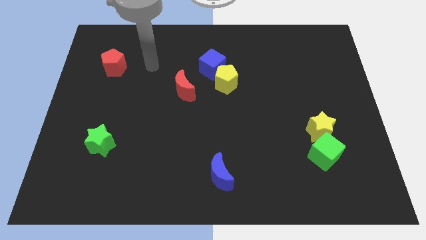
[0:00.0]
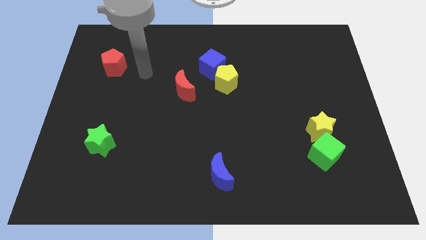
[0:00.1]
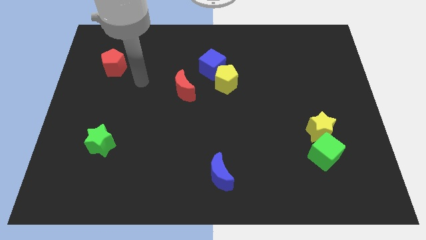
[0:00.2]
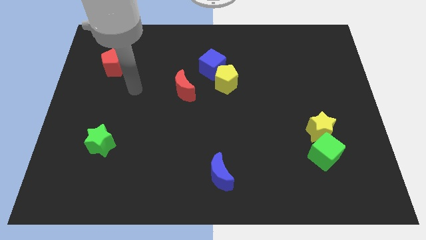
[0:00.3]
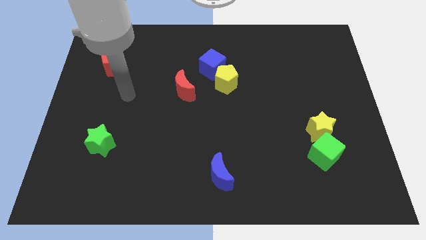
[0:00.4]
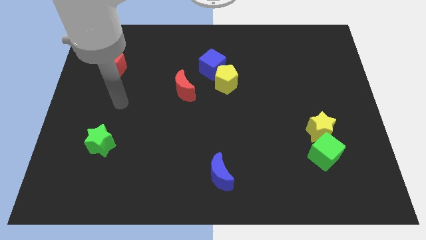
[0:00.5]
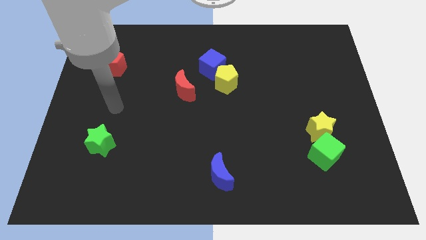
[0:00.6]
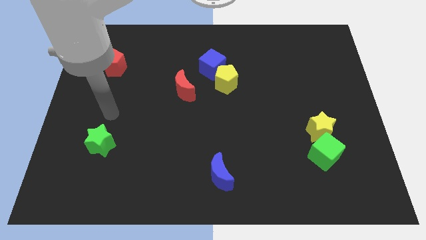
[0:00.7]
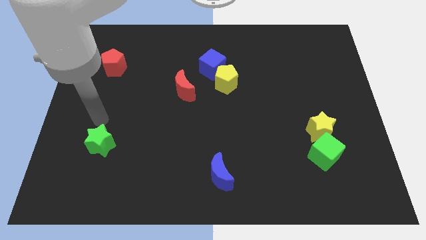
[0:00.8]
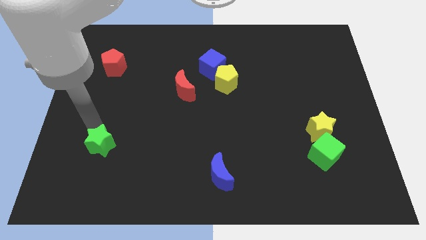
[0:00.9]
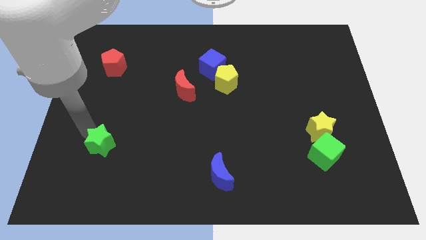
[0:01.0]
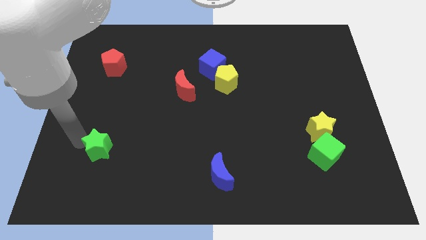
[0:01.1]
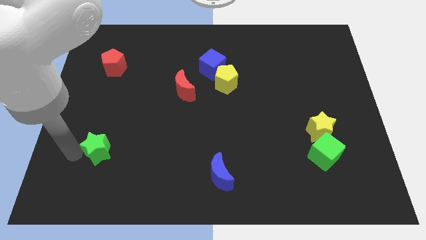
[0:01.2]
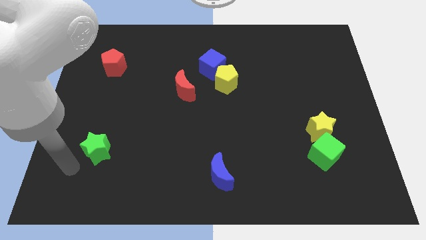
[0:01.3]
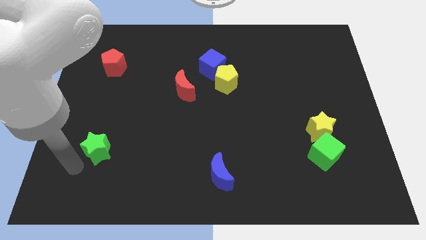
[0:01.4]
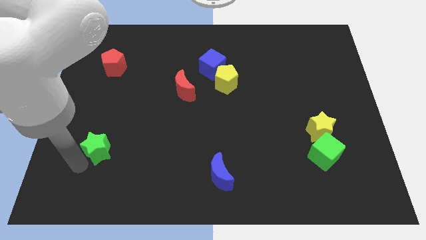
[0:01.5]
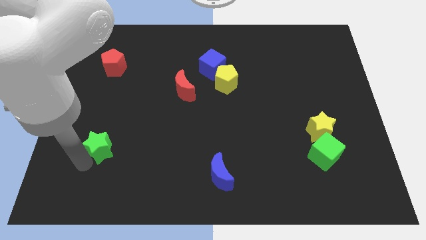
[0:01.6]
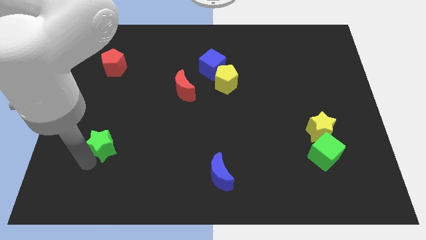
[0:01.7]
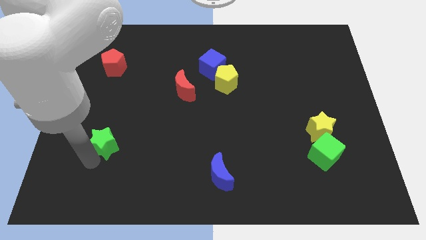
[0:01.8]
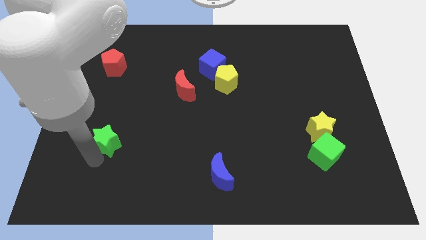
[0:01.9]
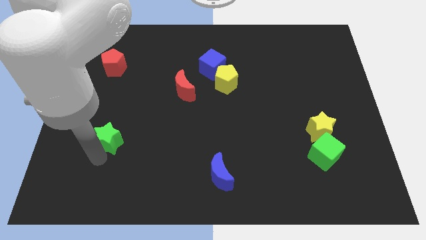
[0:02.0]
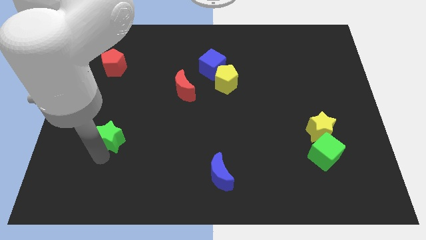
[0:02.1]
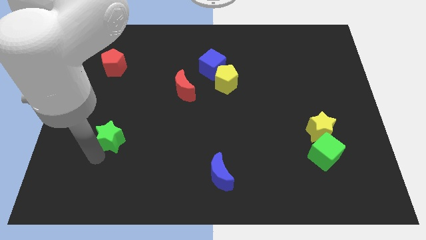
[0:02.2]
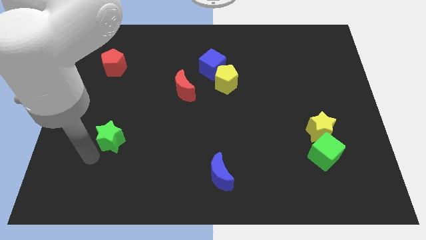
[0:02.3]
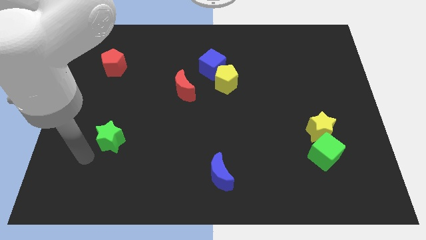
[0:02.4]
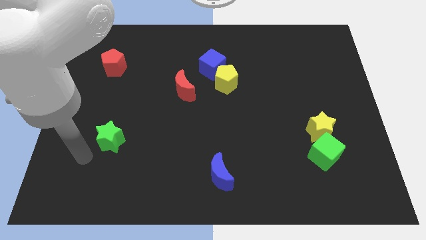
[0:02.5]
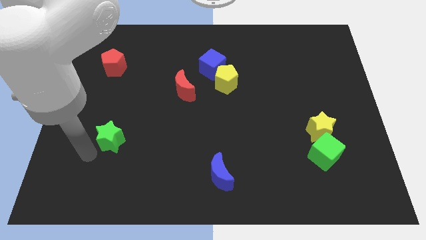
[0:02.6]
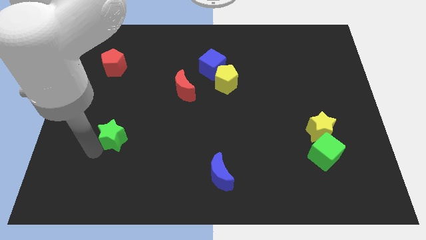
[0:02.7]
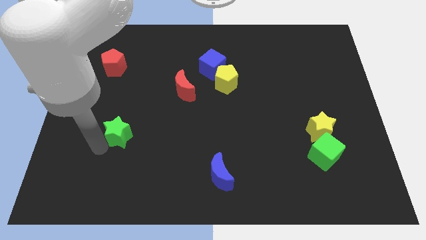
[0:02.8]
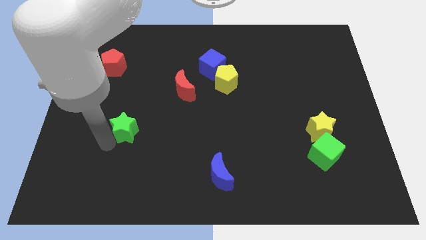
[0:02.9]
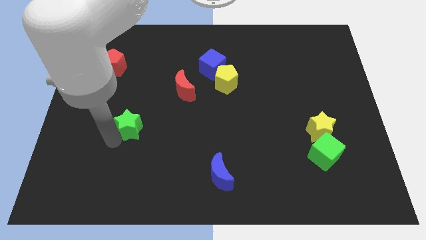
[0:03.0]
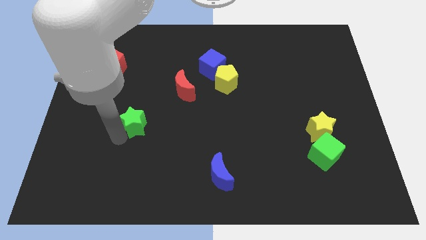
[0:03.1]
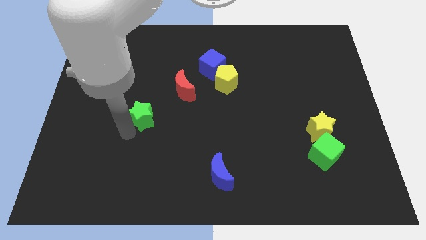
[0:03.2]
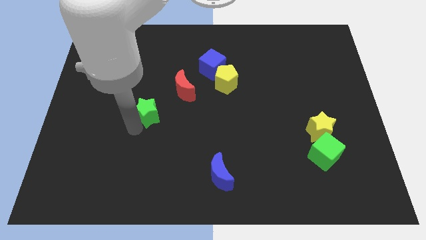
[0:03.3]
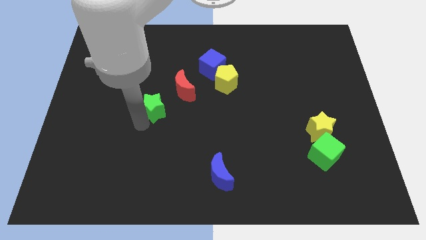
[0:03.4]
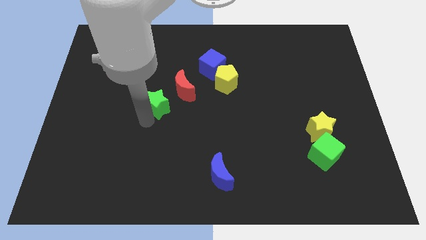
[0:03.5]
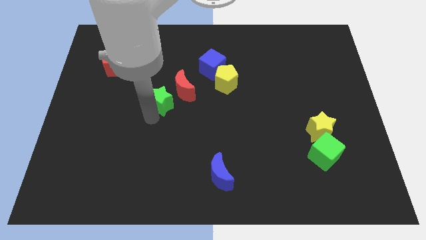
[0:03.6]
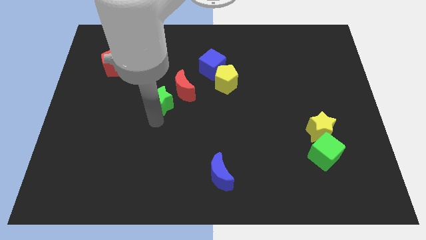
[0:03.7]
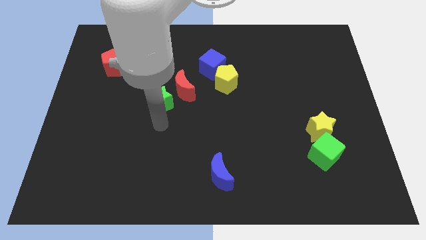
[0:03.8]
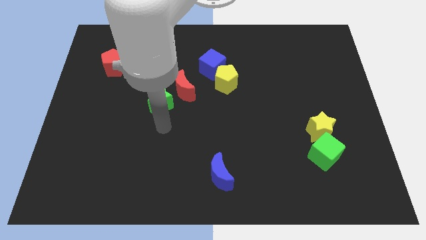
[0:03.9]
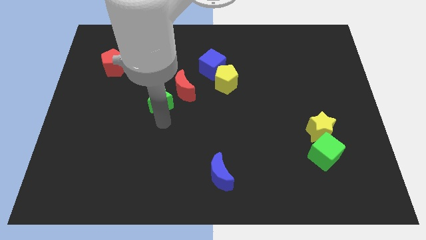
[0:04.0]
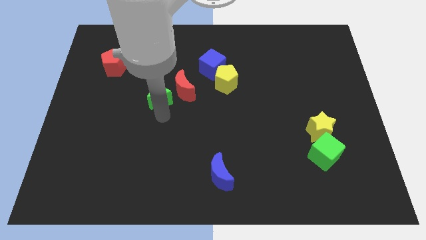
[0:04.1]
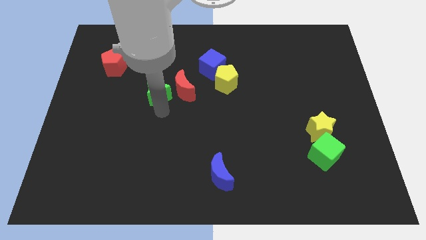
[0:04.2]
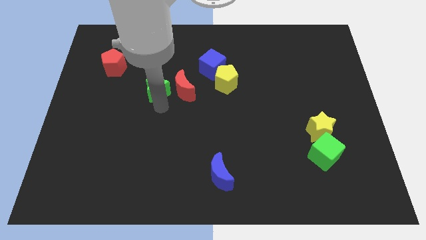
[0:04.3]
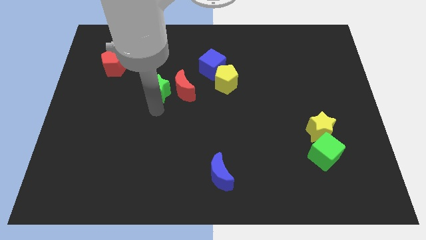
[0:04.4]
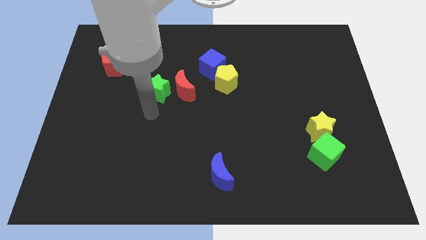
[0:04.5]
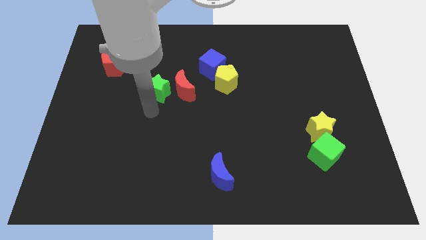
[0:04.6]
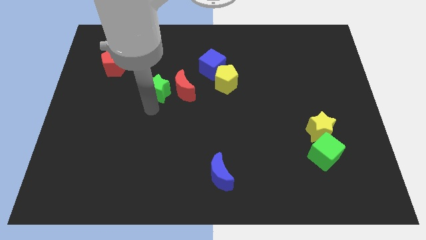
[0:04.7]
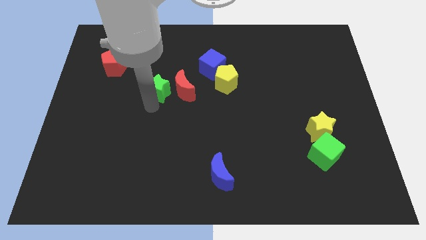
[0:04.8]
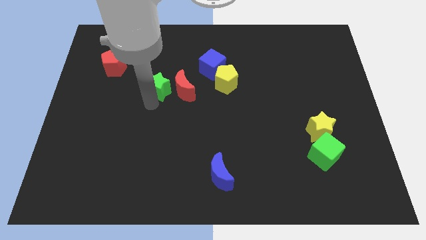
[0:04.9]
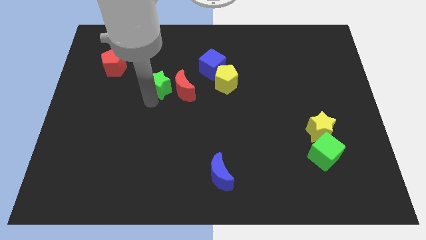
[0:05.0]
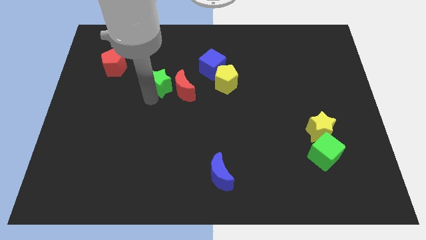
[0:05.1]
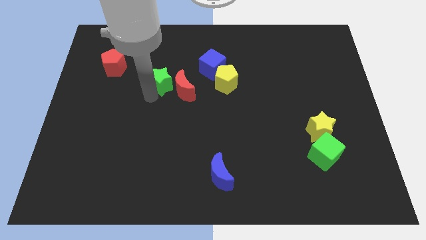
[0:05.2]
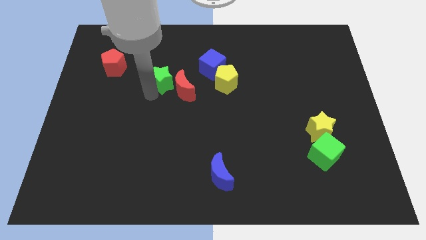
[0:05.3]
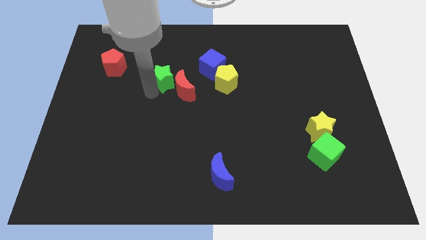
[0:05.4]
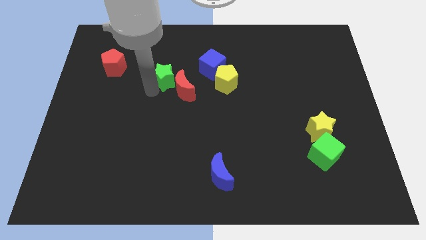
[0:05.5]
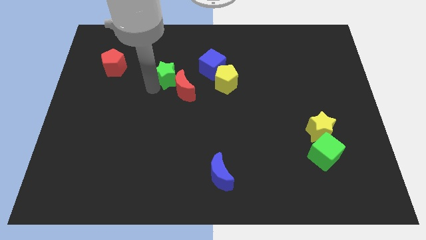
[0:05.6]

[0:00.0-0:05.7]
put the green star to the top of the red moon

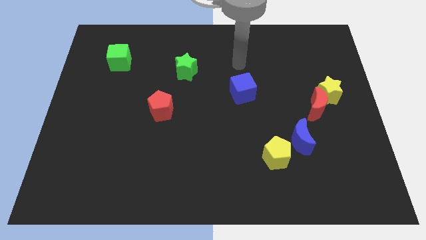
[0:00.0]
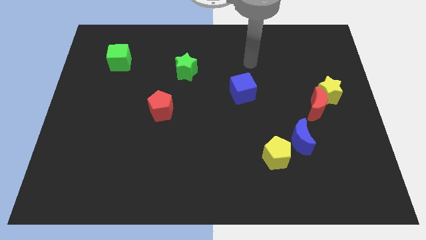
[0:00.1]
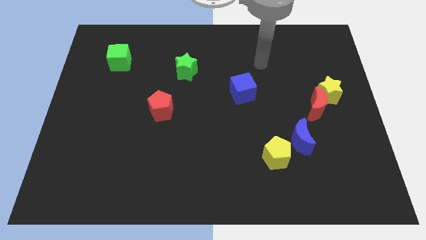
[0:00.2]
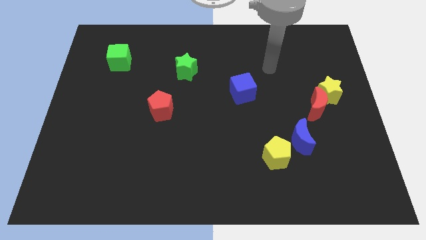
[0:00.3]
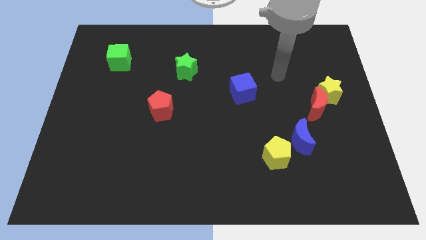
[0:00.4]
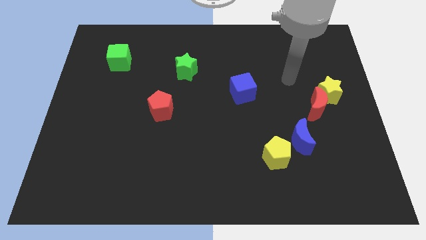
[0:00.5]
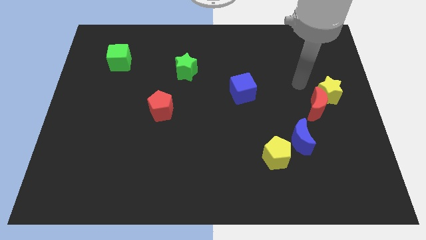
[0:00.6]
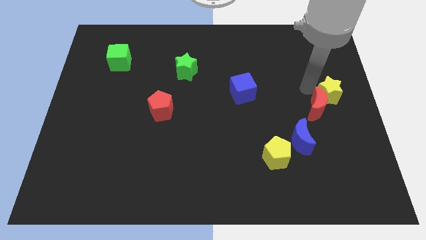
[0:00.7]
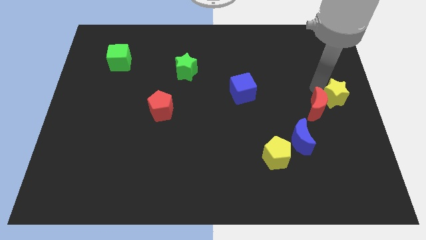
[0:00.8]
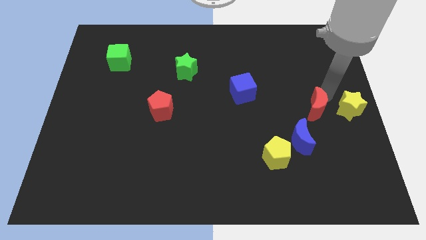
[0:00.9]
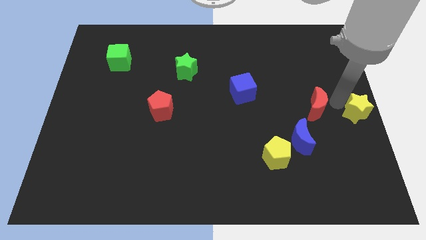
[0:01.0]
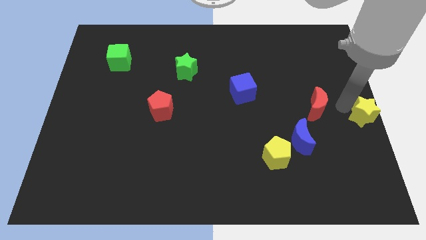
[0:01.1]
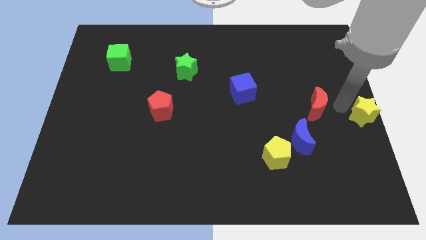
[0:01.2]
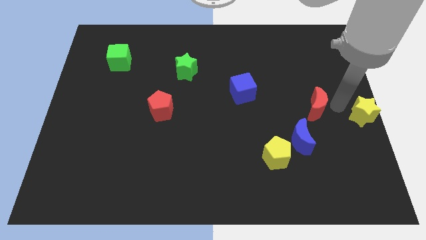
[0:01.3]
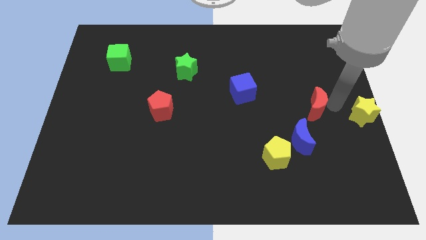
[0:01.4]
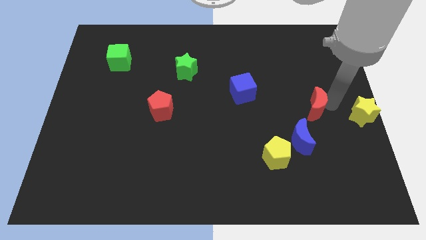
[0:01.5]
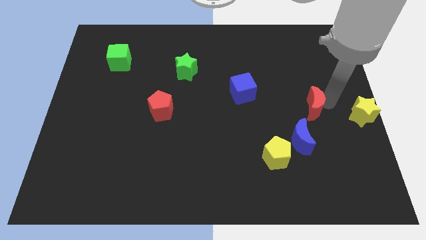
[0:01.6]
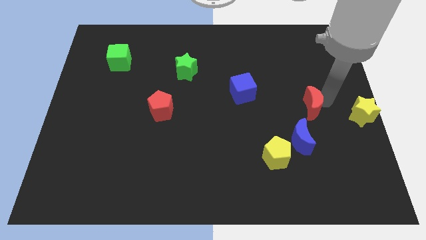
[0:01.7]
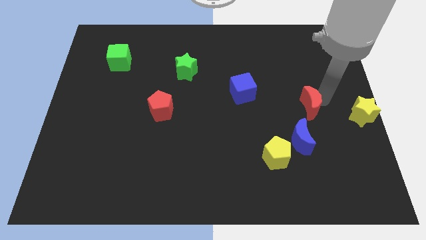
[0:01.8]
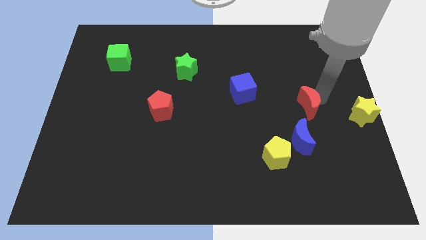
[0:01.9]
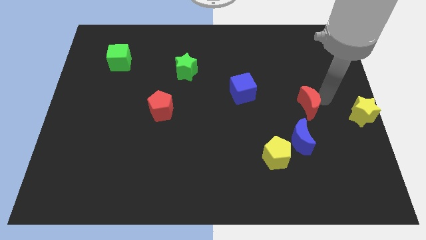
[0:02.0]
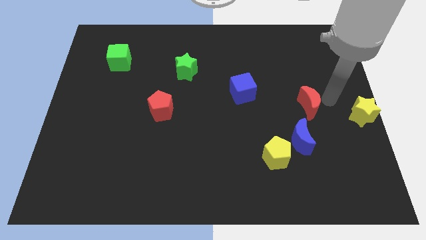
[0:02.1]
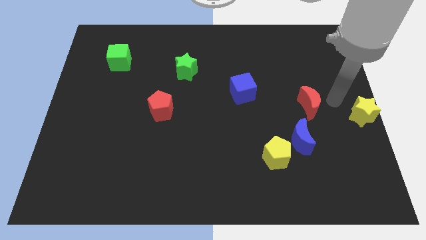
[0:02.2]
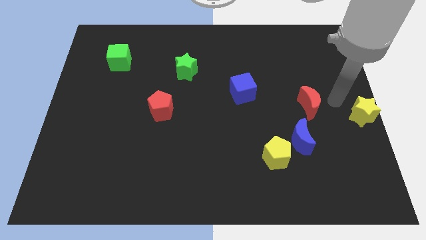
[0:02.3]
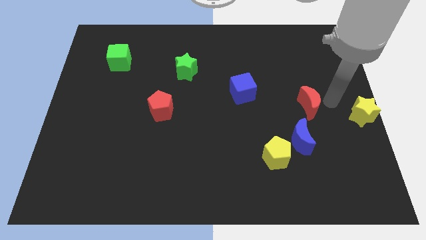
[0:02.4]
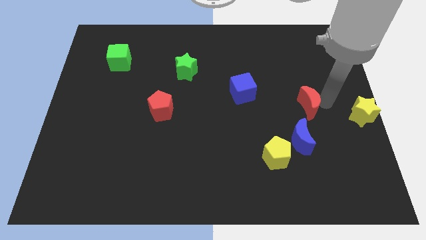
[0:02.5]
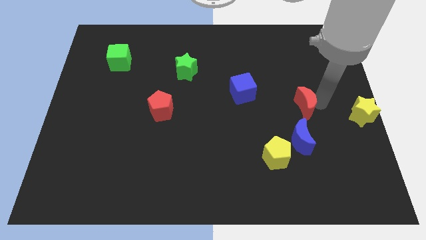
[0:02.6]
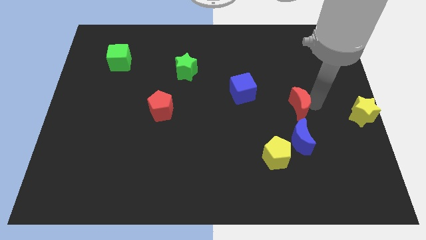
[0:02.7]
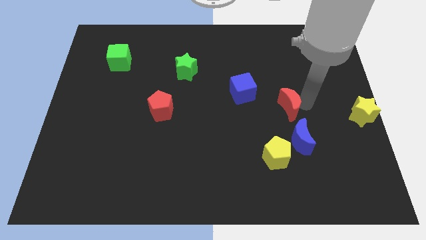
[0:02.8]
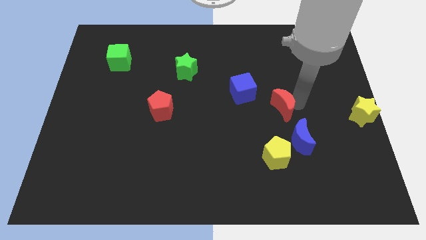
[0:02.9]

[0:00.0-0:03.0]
move the red moon to the top of the yellow pentagon
